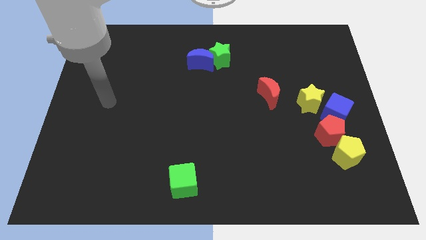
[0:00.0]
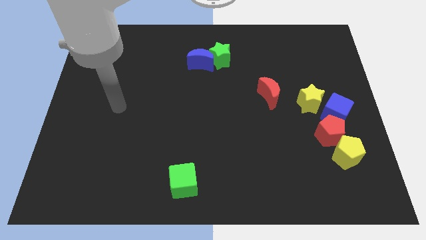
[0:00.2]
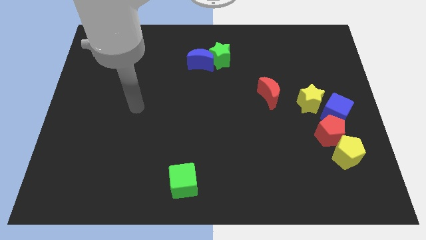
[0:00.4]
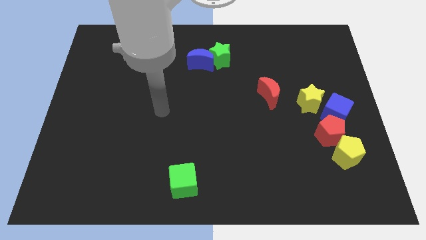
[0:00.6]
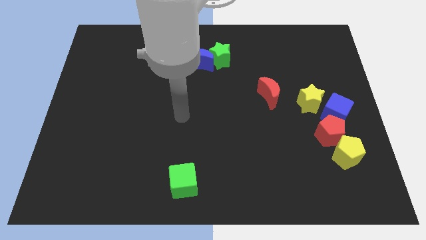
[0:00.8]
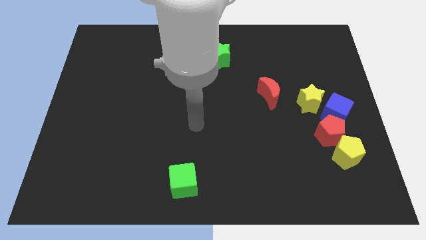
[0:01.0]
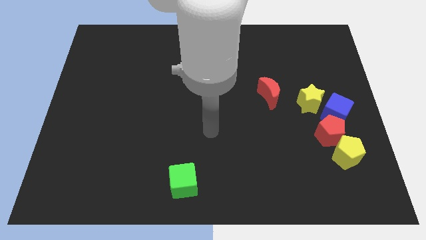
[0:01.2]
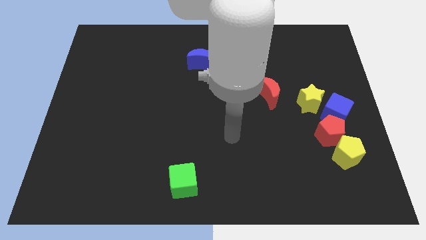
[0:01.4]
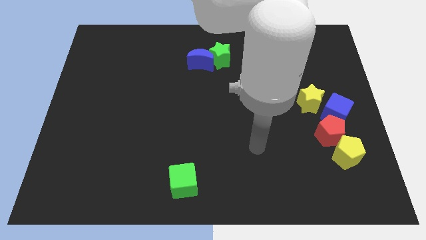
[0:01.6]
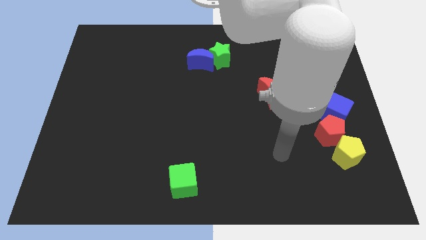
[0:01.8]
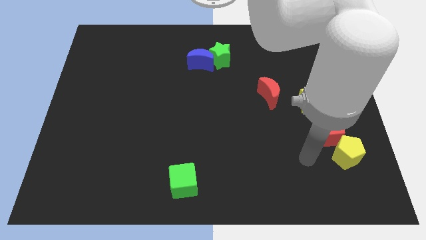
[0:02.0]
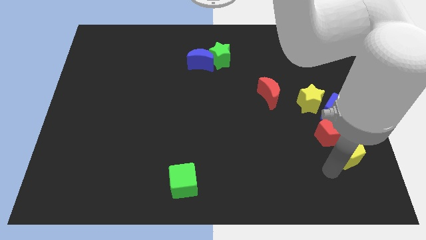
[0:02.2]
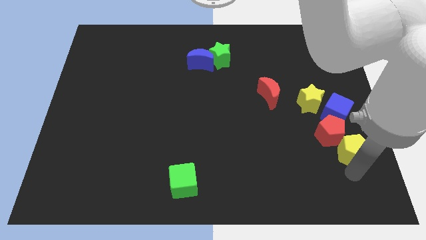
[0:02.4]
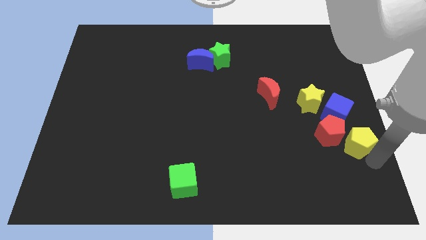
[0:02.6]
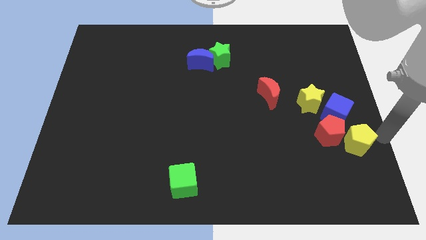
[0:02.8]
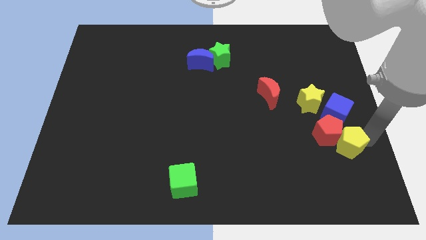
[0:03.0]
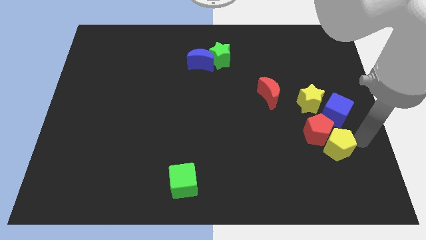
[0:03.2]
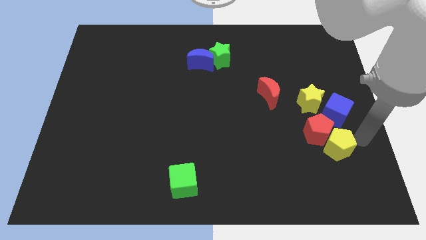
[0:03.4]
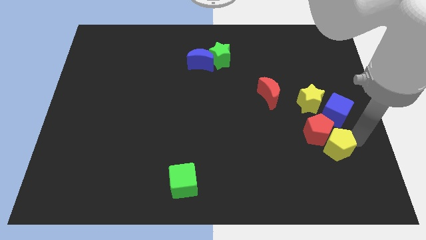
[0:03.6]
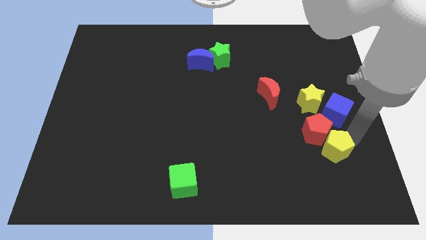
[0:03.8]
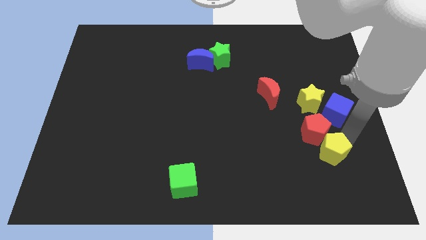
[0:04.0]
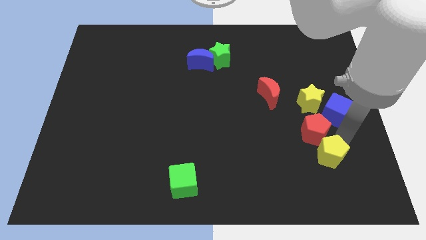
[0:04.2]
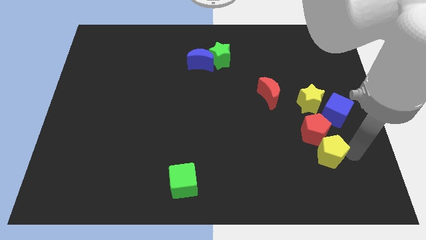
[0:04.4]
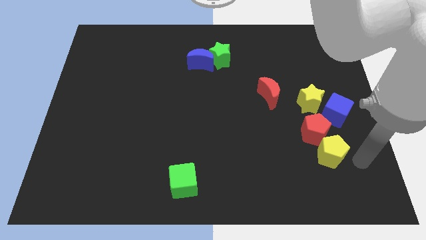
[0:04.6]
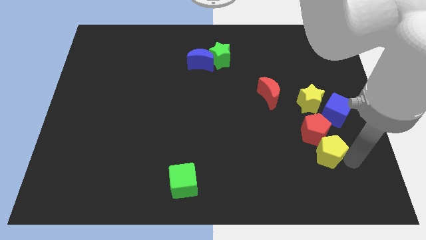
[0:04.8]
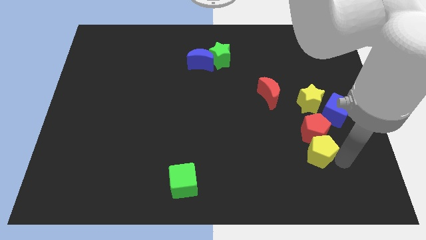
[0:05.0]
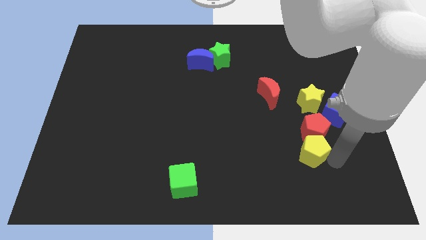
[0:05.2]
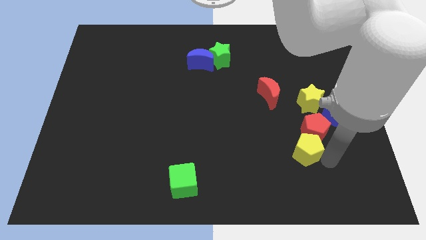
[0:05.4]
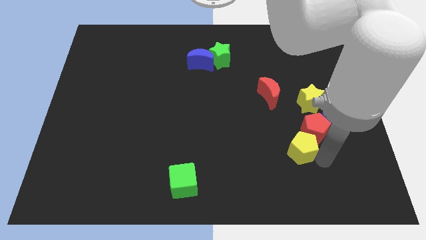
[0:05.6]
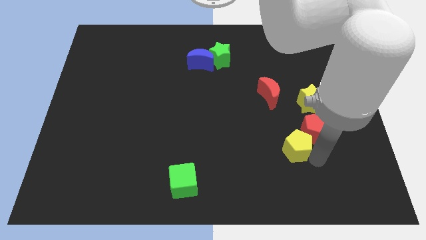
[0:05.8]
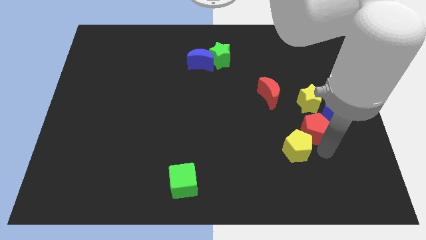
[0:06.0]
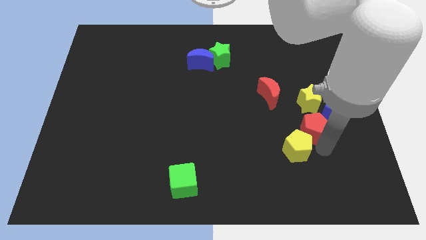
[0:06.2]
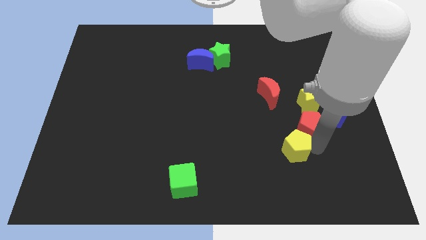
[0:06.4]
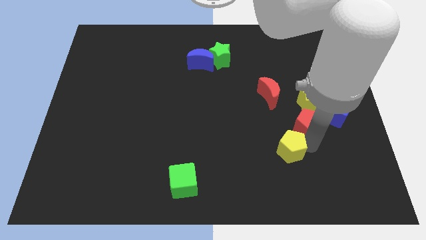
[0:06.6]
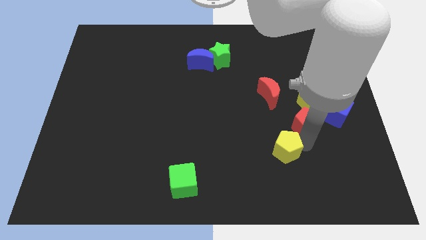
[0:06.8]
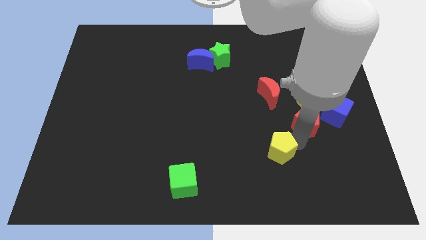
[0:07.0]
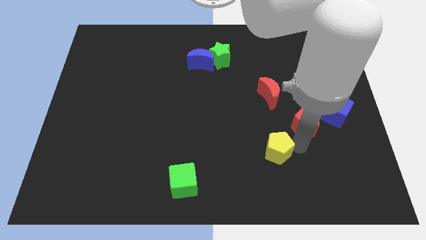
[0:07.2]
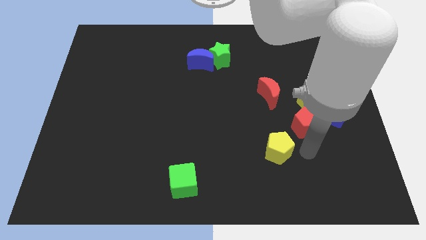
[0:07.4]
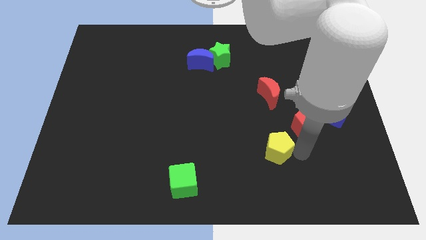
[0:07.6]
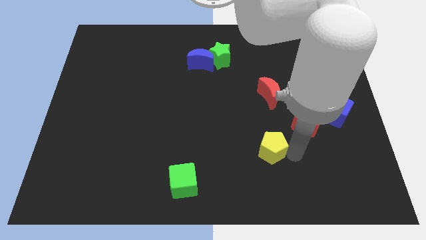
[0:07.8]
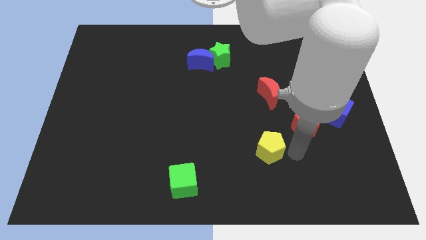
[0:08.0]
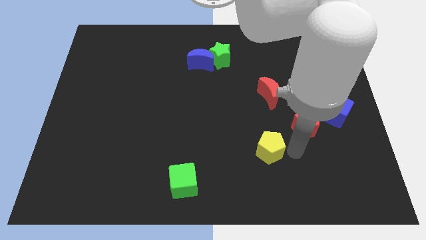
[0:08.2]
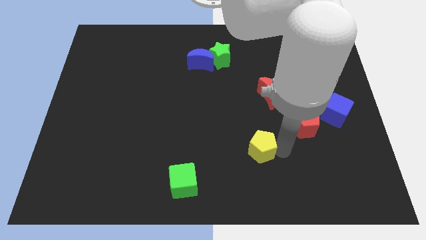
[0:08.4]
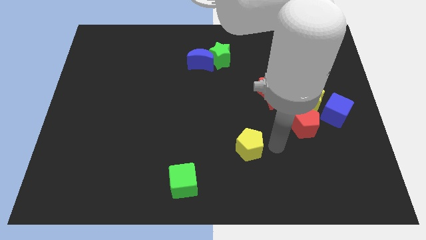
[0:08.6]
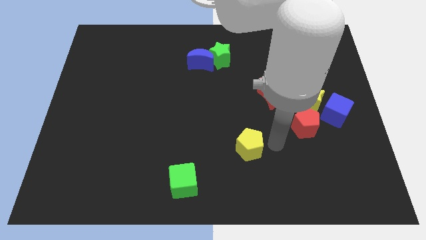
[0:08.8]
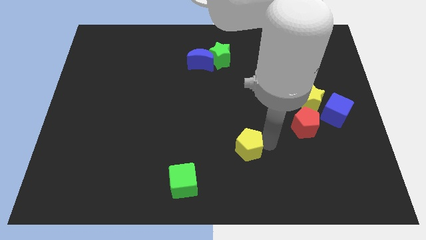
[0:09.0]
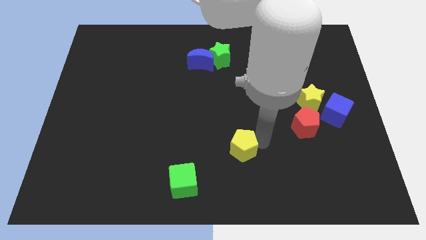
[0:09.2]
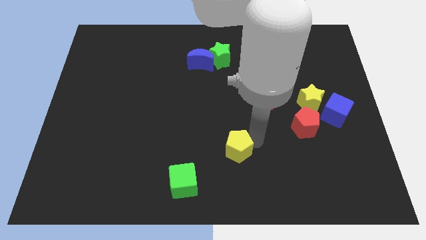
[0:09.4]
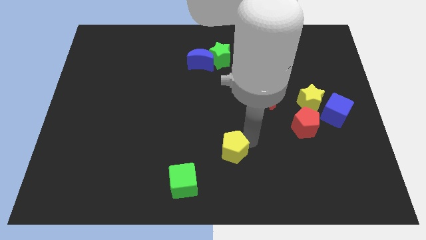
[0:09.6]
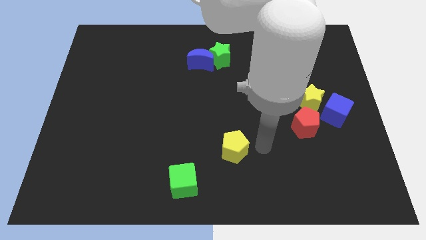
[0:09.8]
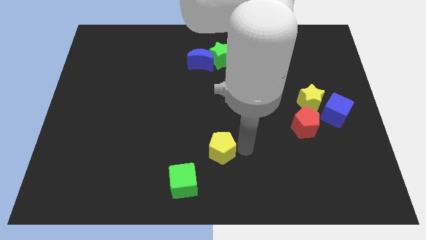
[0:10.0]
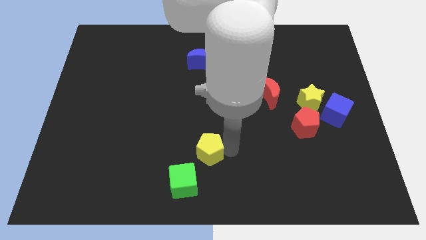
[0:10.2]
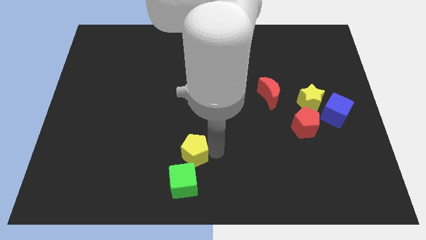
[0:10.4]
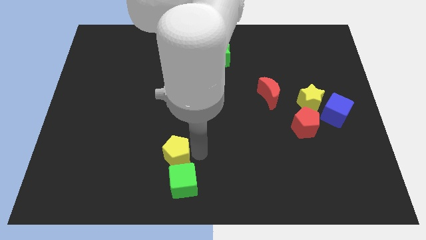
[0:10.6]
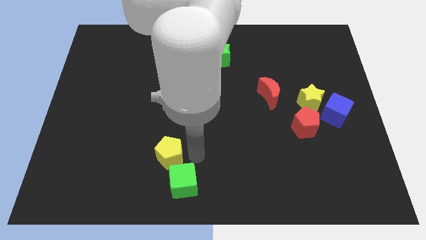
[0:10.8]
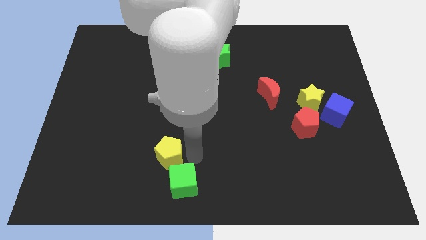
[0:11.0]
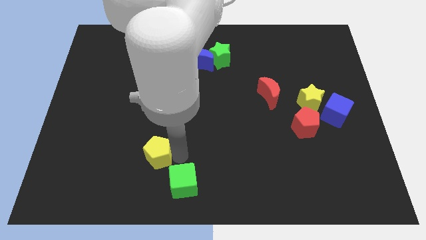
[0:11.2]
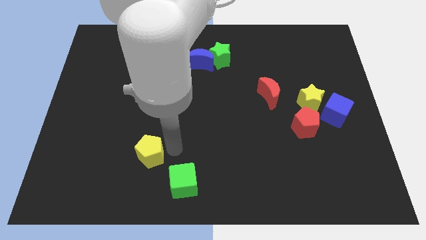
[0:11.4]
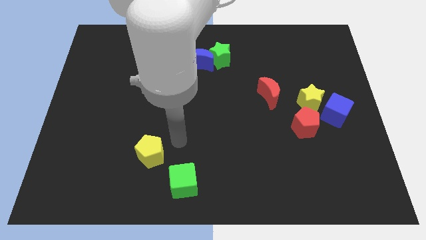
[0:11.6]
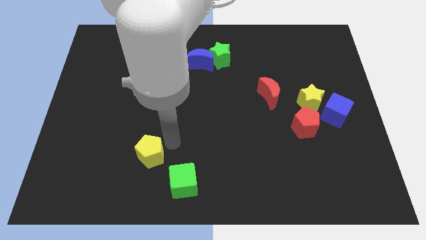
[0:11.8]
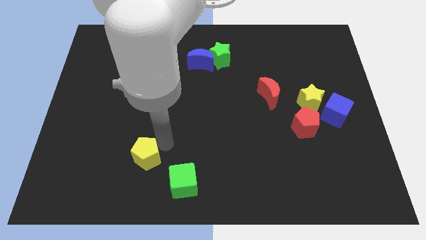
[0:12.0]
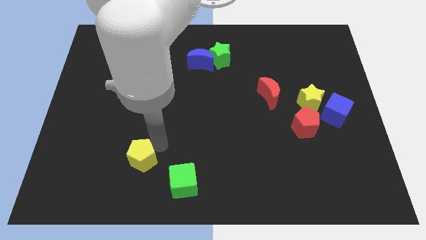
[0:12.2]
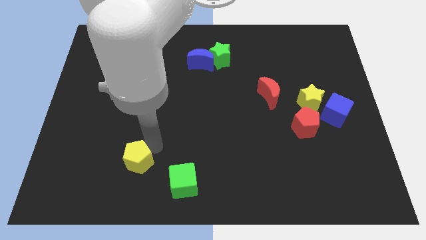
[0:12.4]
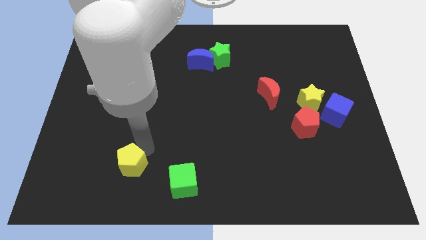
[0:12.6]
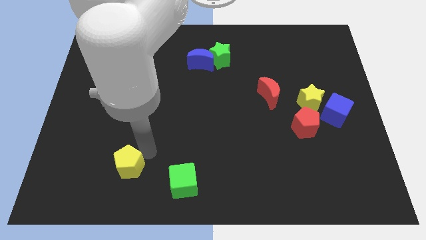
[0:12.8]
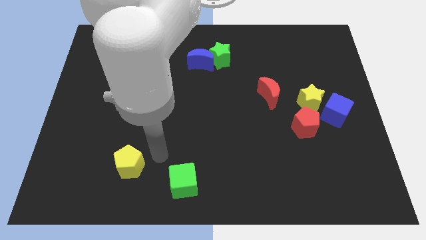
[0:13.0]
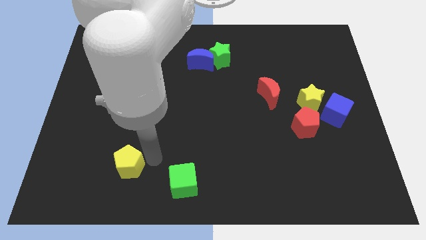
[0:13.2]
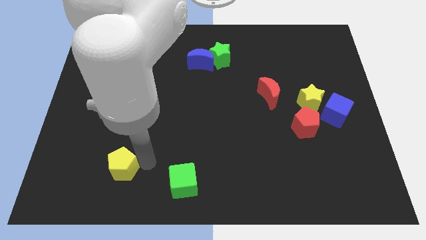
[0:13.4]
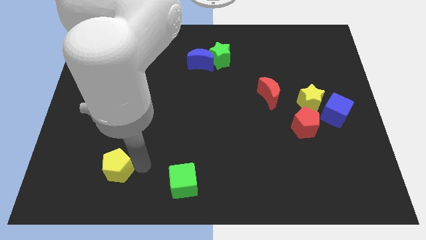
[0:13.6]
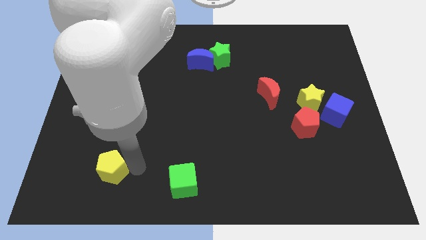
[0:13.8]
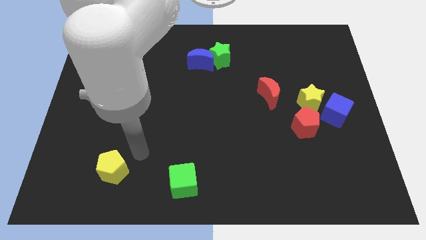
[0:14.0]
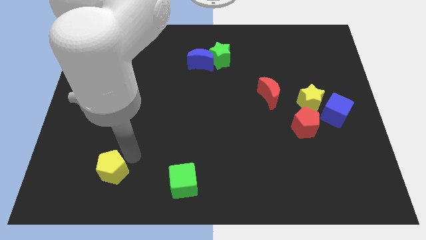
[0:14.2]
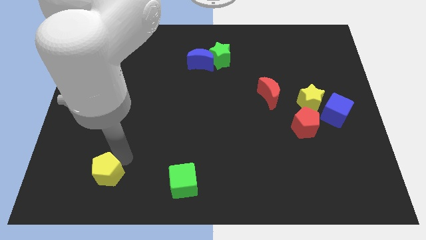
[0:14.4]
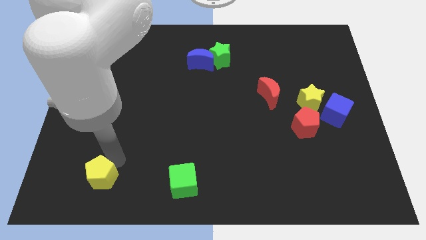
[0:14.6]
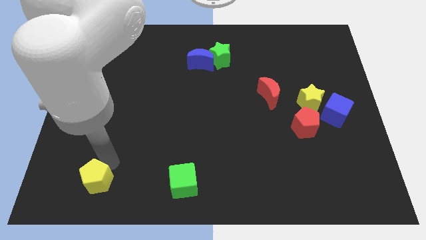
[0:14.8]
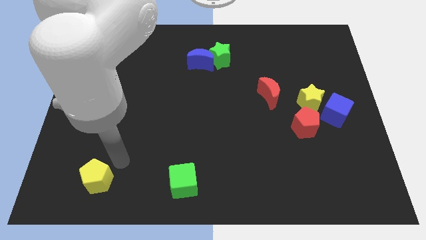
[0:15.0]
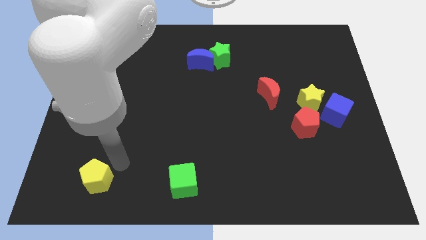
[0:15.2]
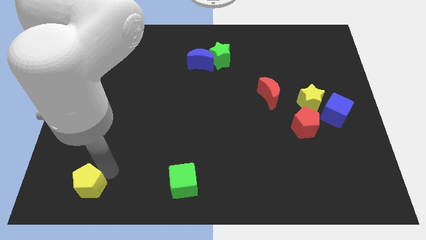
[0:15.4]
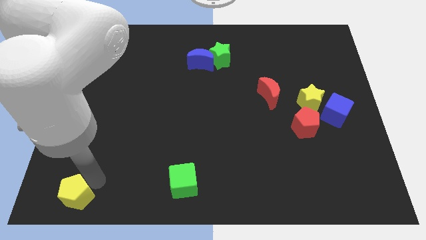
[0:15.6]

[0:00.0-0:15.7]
put the yellow pentagon to the lower left corner
